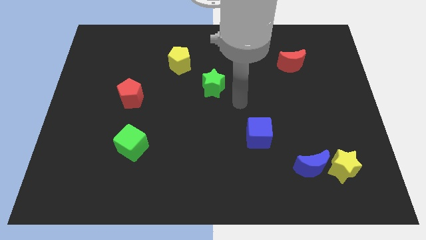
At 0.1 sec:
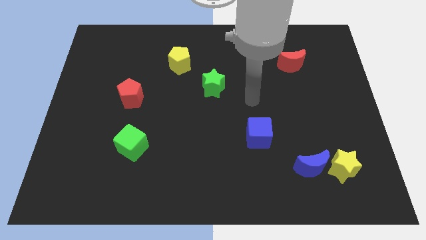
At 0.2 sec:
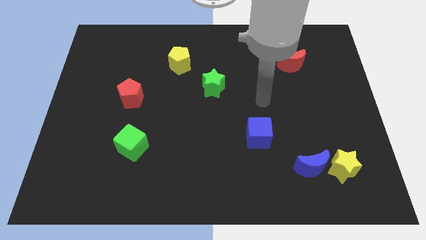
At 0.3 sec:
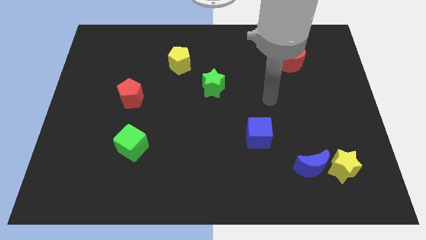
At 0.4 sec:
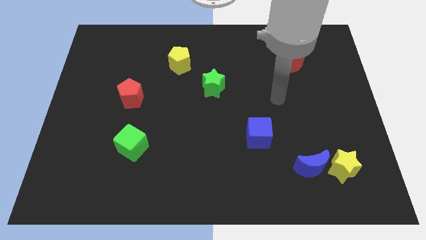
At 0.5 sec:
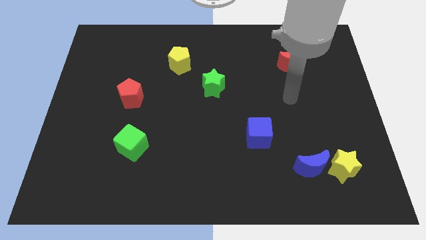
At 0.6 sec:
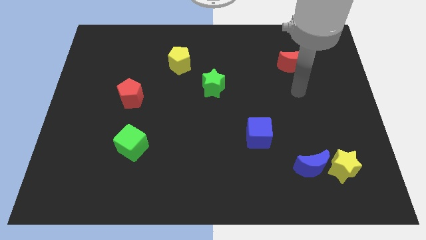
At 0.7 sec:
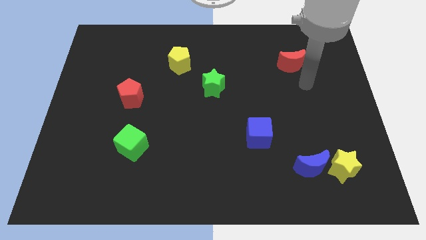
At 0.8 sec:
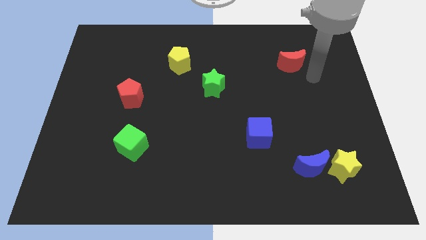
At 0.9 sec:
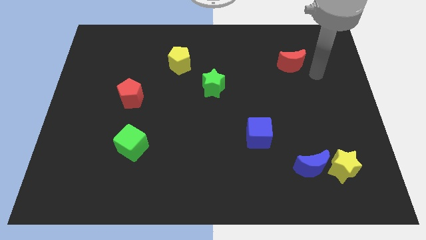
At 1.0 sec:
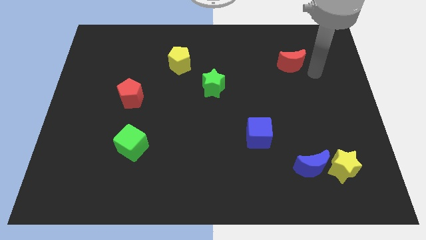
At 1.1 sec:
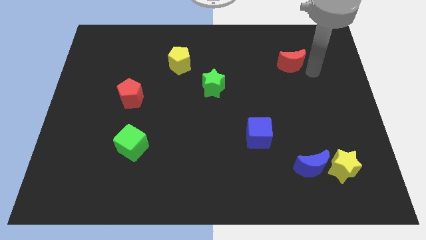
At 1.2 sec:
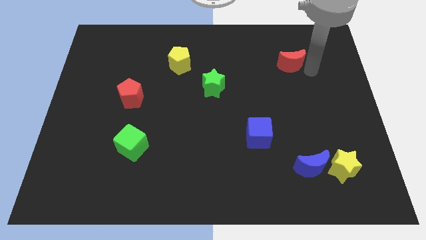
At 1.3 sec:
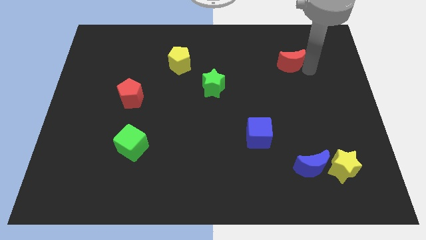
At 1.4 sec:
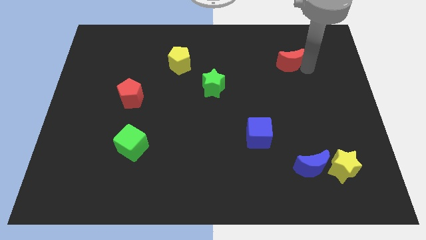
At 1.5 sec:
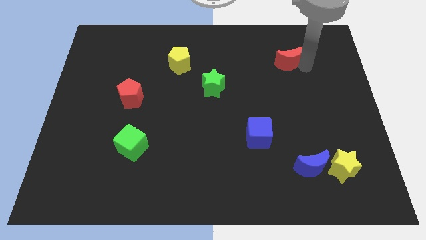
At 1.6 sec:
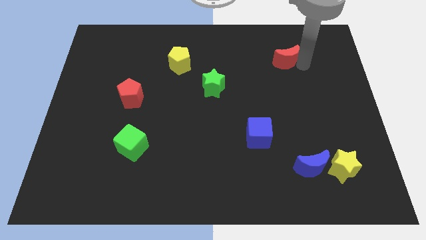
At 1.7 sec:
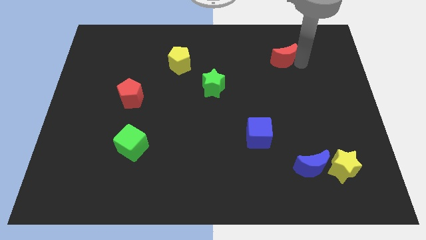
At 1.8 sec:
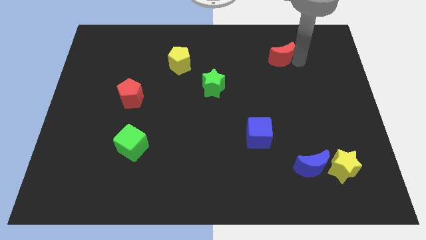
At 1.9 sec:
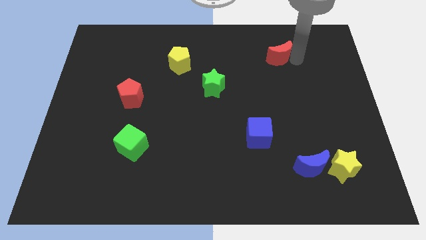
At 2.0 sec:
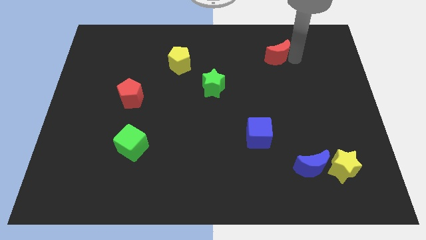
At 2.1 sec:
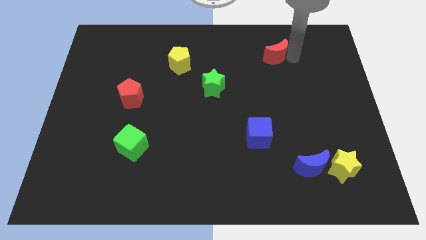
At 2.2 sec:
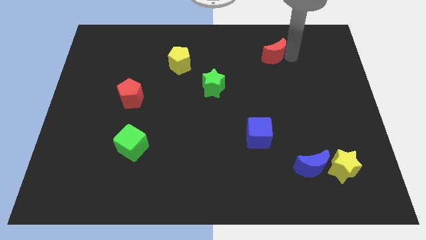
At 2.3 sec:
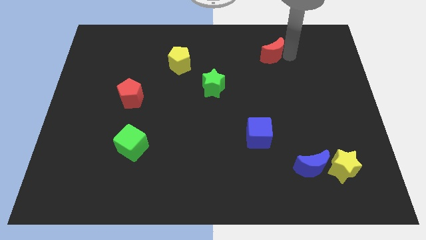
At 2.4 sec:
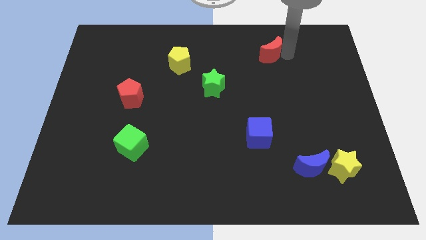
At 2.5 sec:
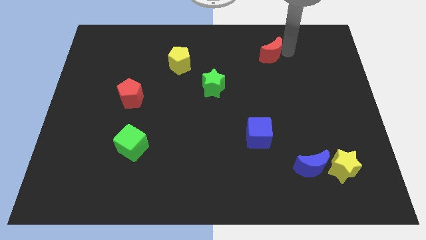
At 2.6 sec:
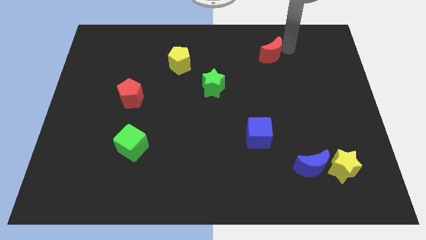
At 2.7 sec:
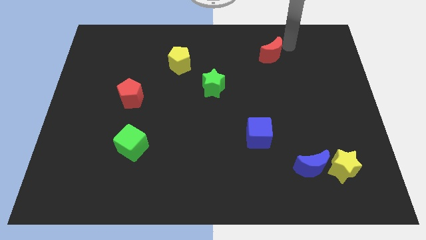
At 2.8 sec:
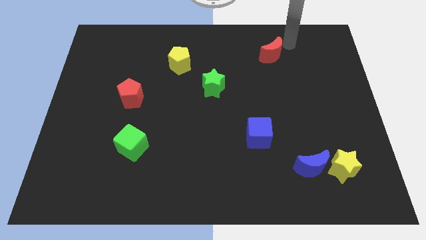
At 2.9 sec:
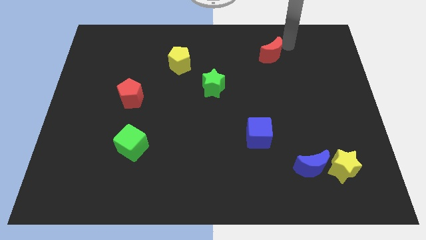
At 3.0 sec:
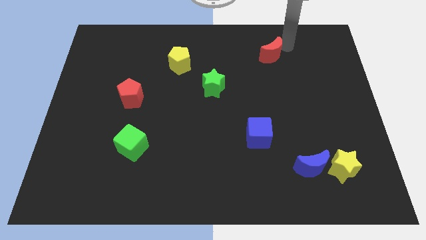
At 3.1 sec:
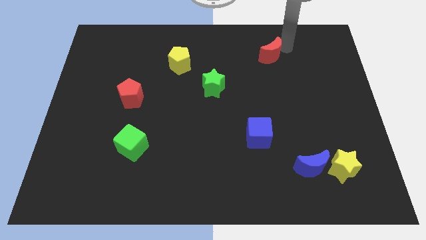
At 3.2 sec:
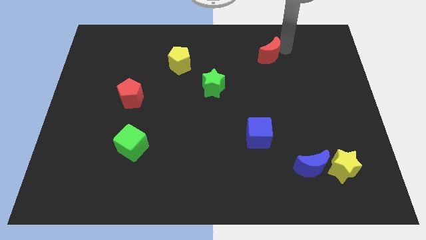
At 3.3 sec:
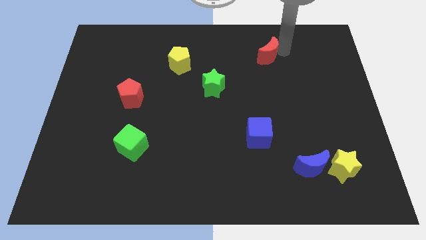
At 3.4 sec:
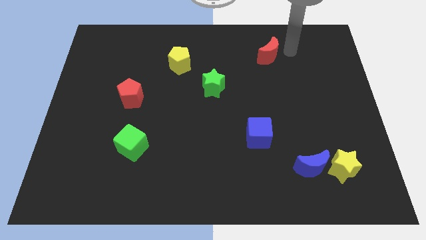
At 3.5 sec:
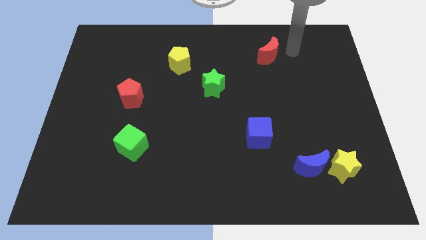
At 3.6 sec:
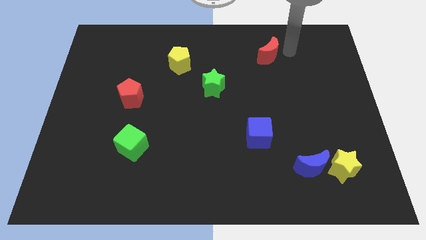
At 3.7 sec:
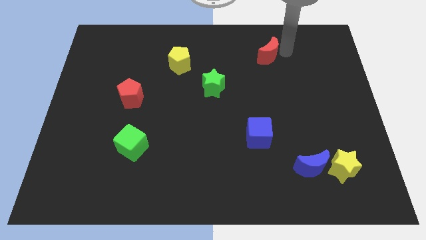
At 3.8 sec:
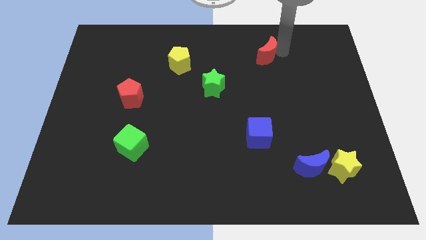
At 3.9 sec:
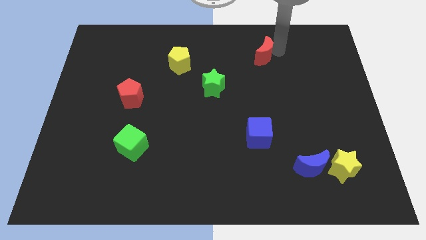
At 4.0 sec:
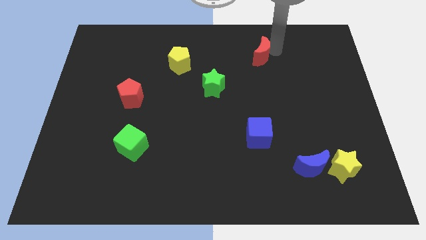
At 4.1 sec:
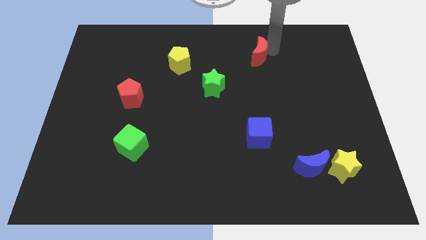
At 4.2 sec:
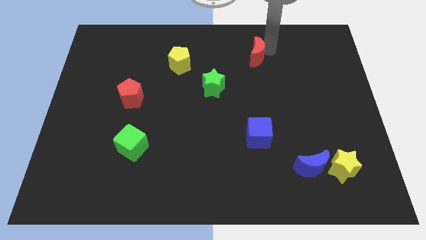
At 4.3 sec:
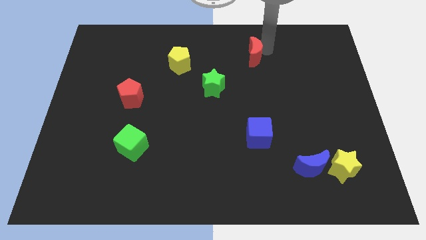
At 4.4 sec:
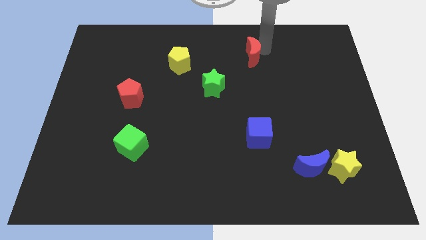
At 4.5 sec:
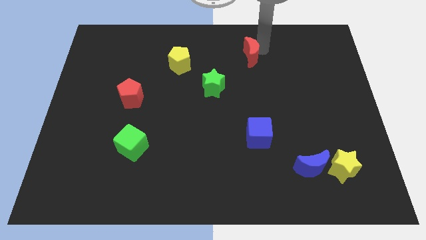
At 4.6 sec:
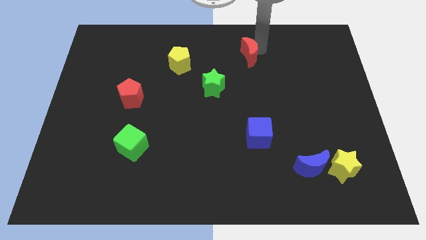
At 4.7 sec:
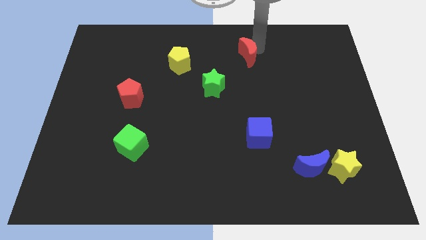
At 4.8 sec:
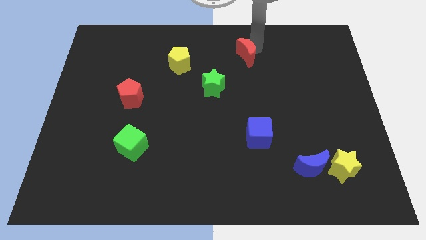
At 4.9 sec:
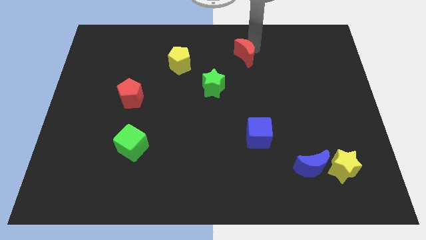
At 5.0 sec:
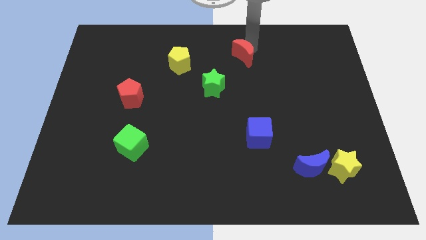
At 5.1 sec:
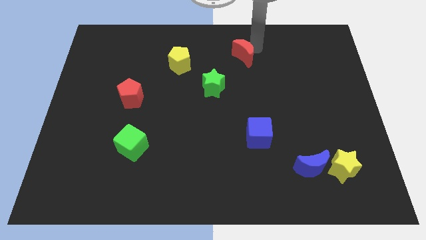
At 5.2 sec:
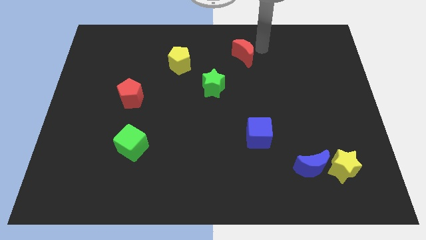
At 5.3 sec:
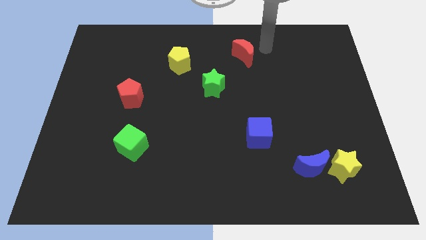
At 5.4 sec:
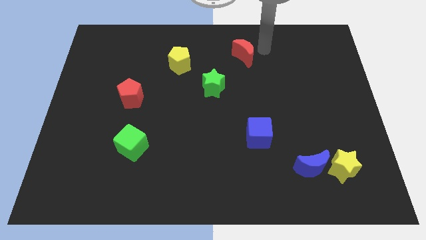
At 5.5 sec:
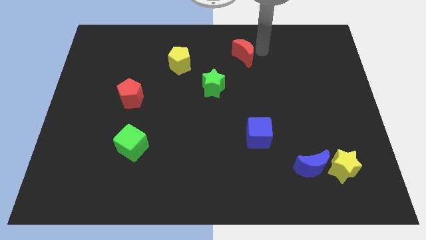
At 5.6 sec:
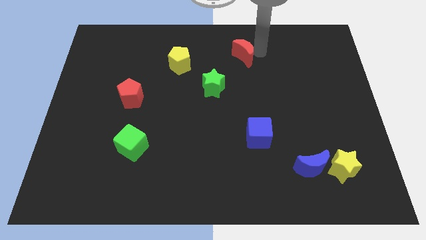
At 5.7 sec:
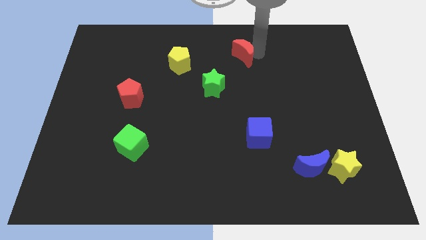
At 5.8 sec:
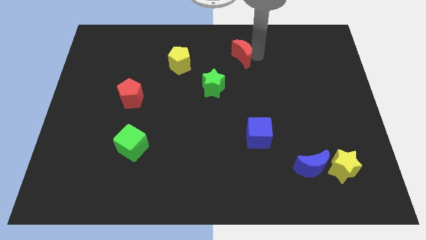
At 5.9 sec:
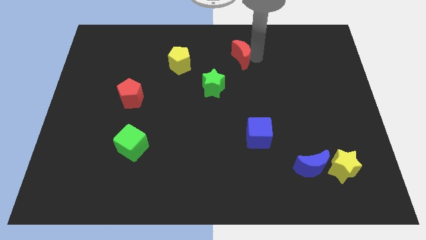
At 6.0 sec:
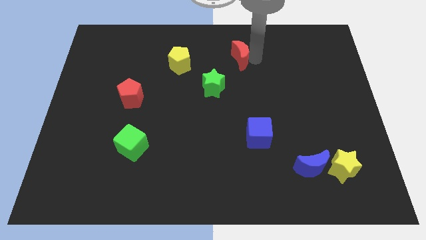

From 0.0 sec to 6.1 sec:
move the red moon just right of the yellow pentagon
